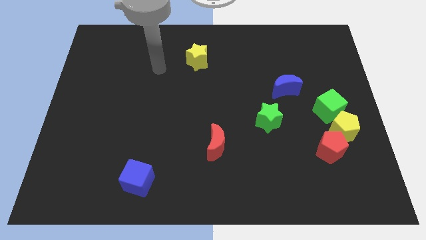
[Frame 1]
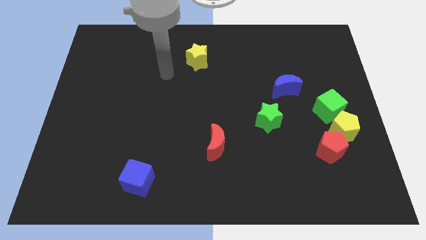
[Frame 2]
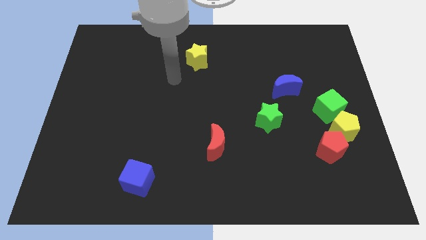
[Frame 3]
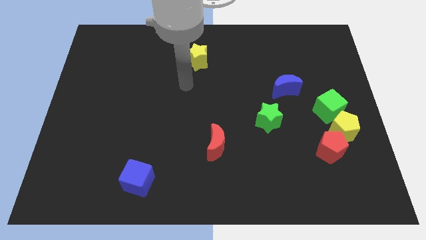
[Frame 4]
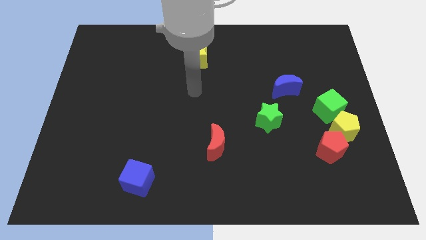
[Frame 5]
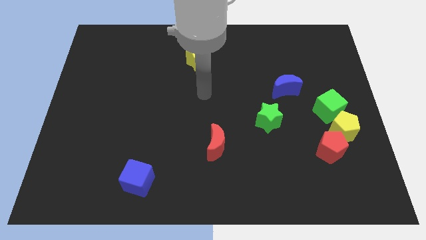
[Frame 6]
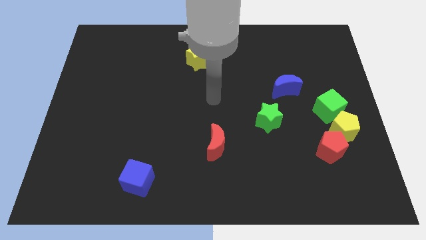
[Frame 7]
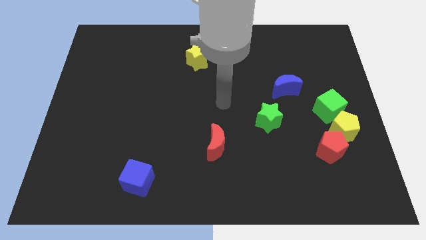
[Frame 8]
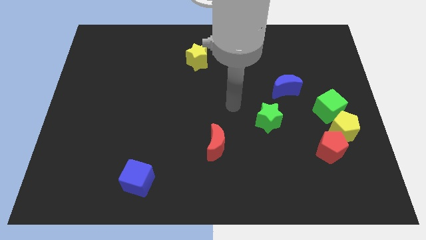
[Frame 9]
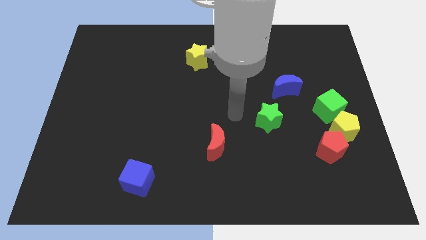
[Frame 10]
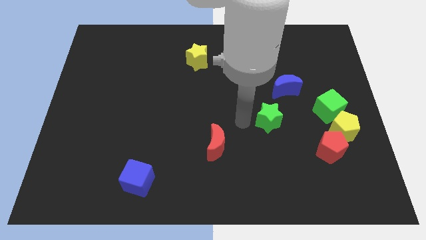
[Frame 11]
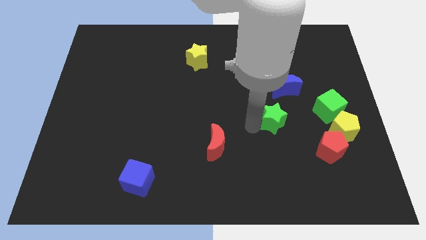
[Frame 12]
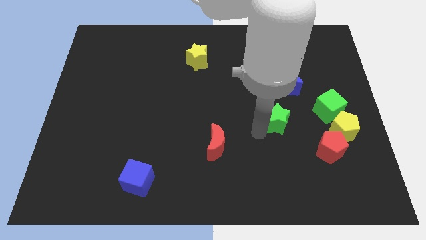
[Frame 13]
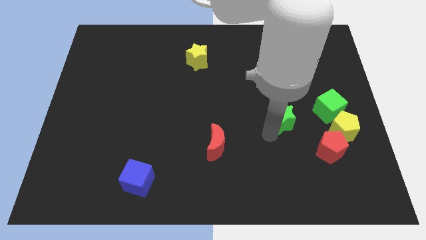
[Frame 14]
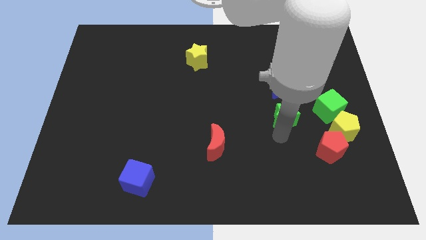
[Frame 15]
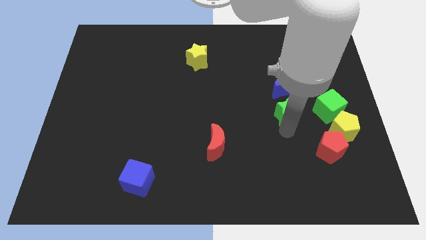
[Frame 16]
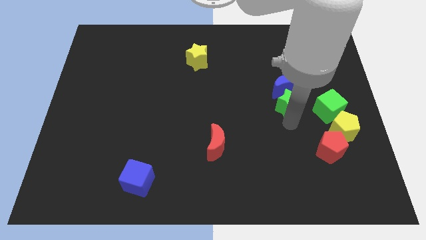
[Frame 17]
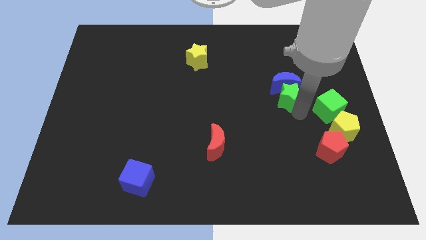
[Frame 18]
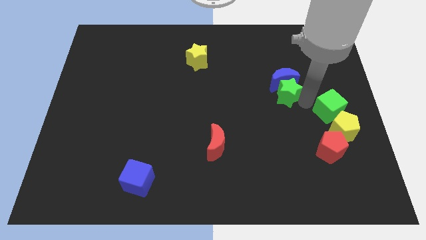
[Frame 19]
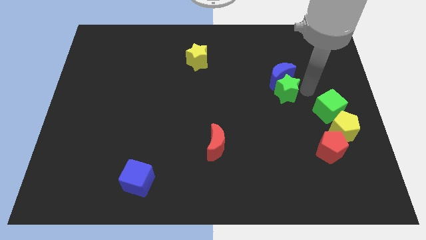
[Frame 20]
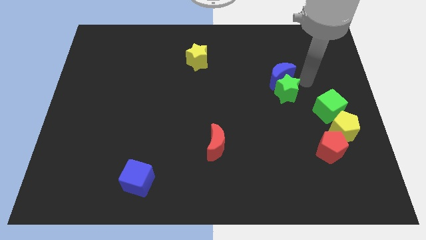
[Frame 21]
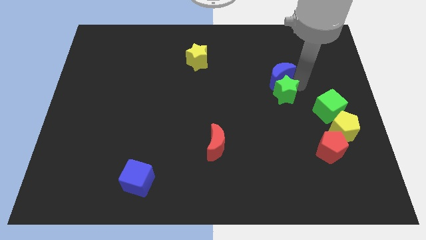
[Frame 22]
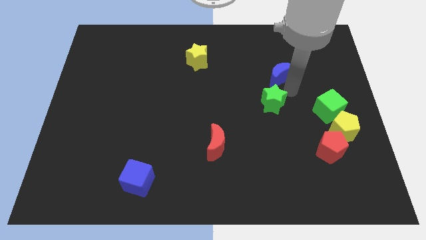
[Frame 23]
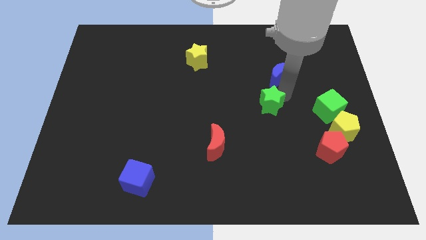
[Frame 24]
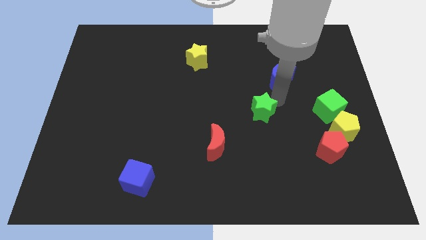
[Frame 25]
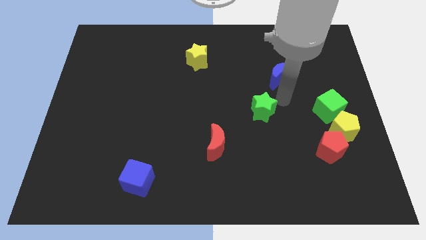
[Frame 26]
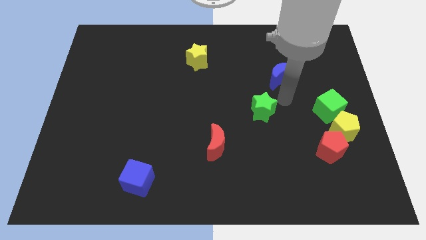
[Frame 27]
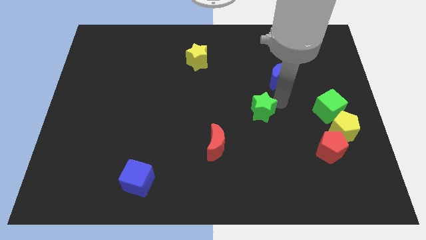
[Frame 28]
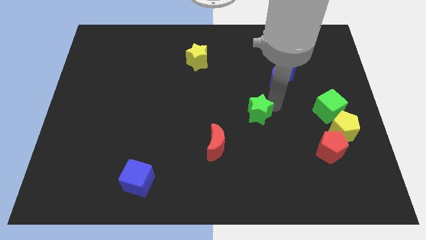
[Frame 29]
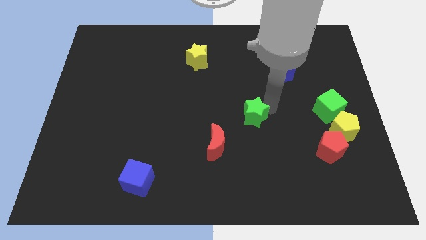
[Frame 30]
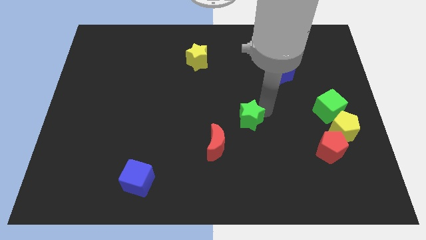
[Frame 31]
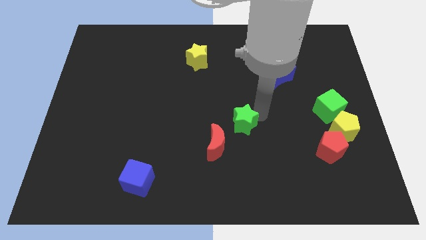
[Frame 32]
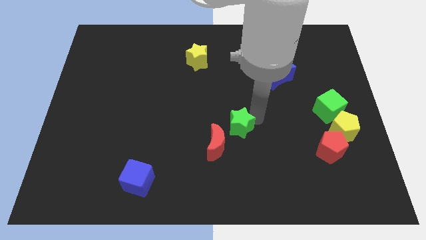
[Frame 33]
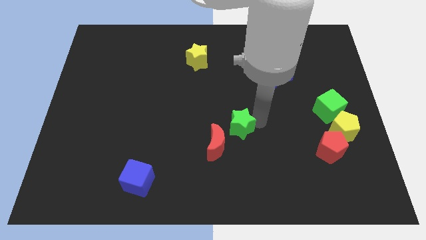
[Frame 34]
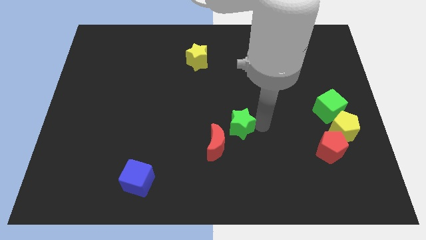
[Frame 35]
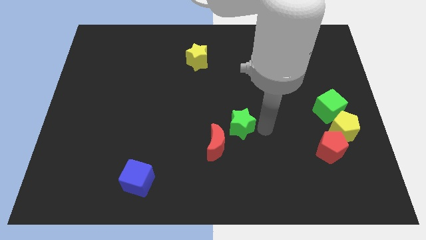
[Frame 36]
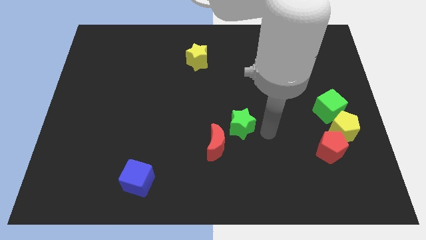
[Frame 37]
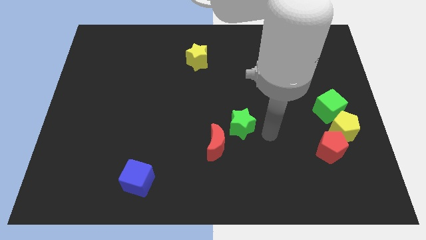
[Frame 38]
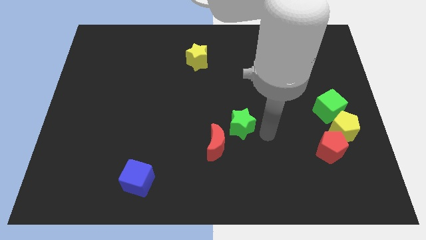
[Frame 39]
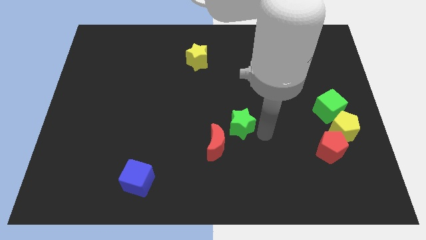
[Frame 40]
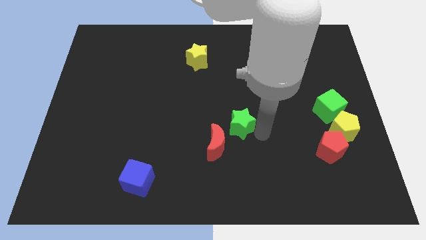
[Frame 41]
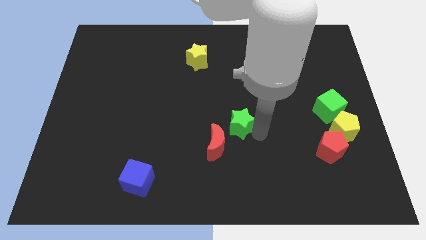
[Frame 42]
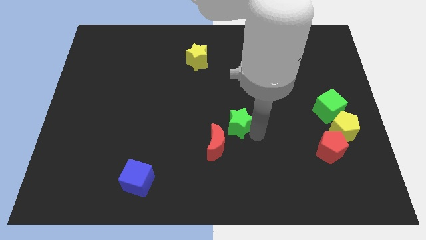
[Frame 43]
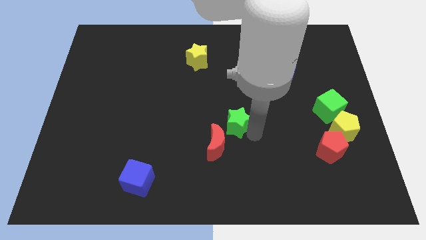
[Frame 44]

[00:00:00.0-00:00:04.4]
slightly push the green star to the left

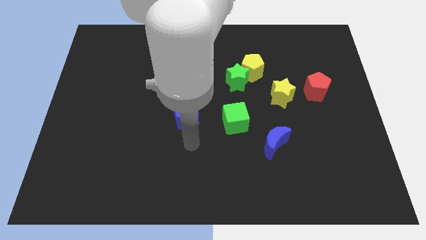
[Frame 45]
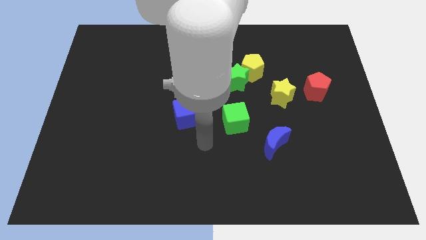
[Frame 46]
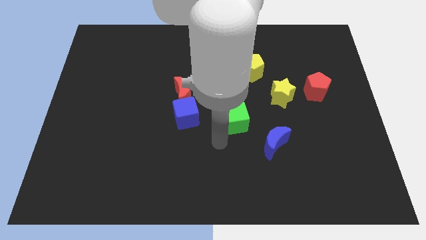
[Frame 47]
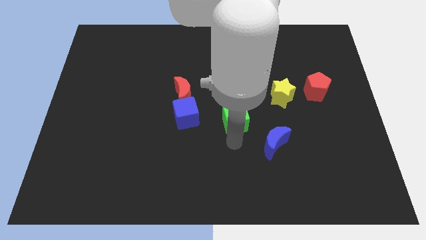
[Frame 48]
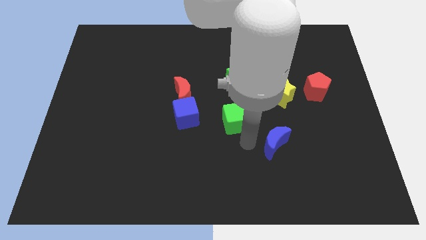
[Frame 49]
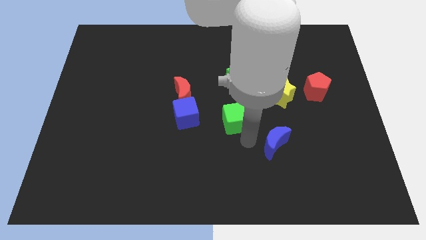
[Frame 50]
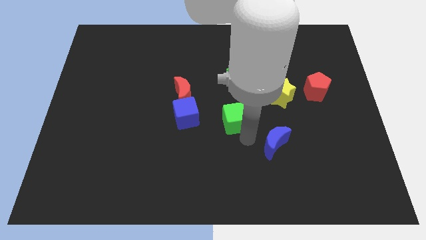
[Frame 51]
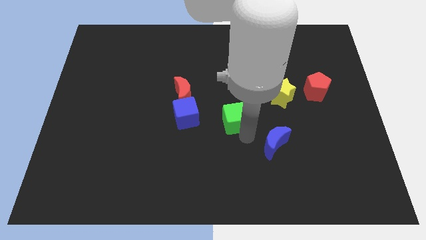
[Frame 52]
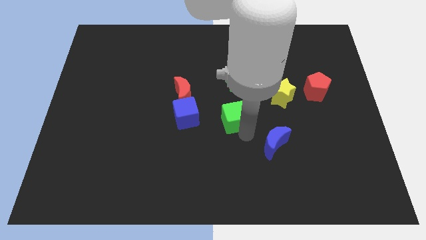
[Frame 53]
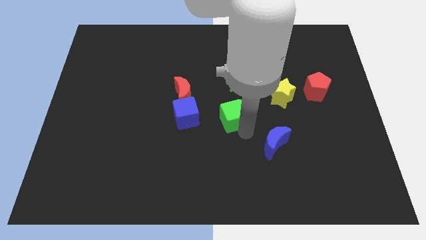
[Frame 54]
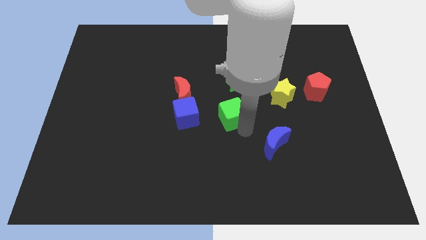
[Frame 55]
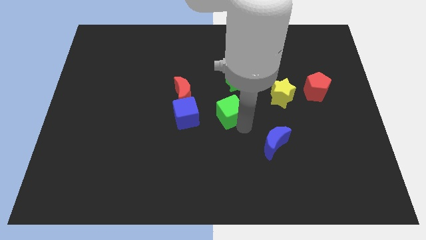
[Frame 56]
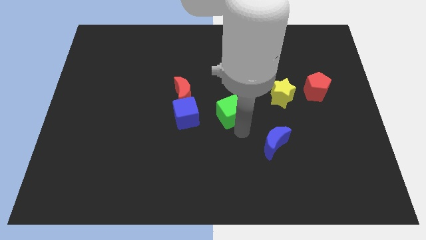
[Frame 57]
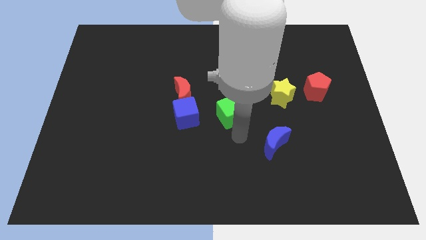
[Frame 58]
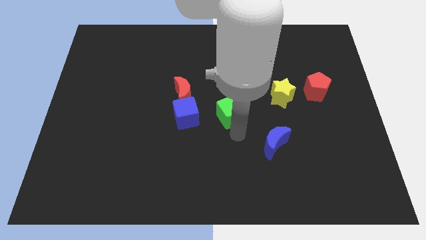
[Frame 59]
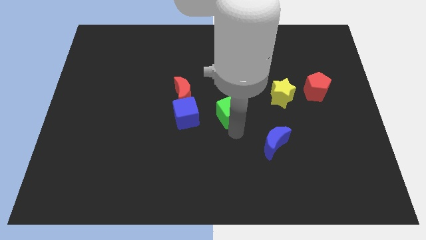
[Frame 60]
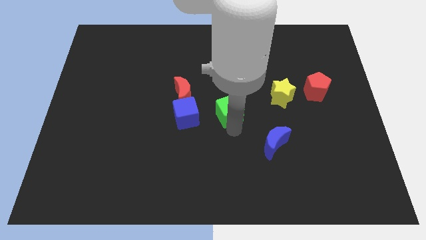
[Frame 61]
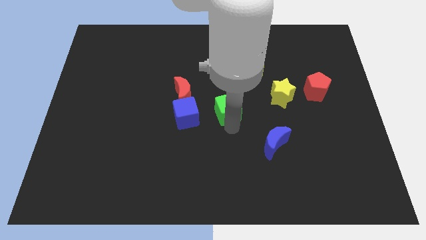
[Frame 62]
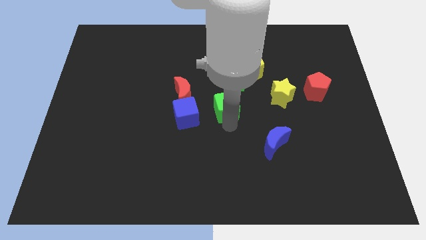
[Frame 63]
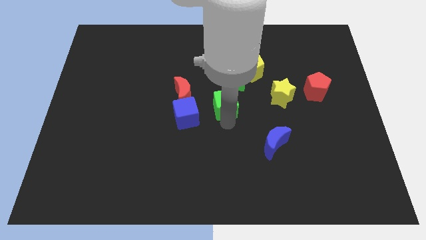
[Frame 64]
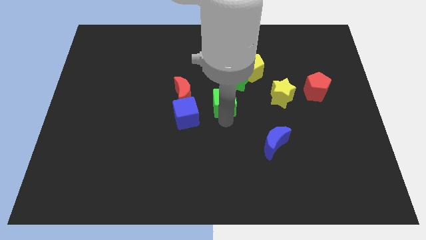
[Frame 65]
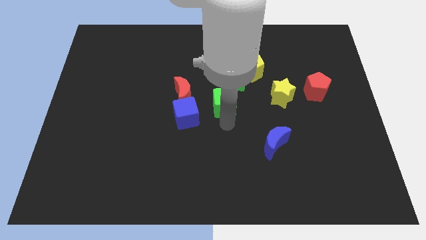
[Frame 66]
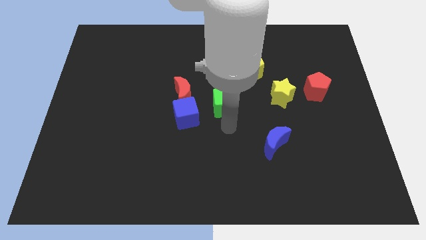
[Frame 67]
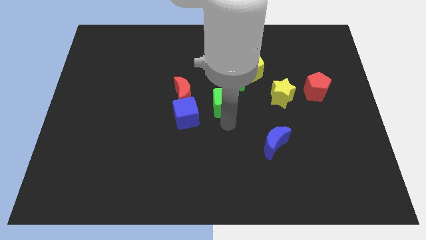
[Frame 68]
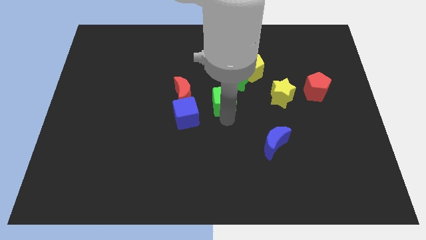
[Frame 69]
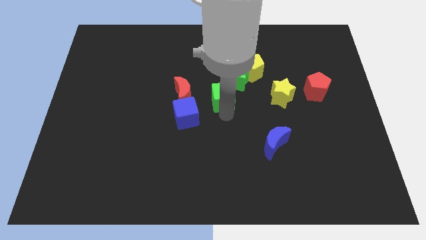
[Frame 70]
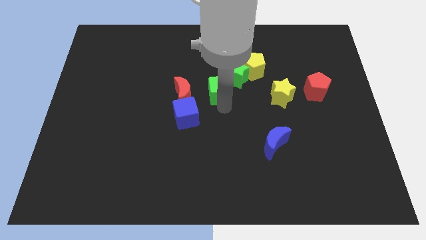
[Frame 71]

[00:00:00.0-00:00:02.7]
slide the green cube slightly up

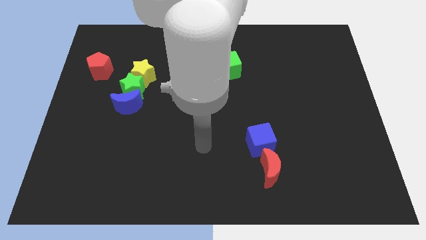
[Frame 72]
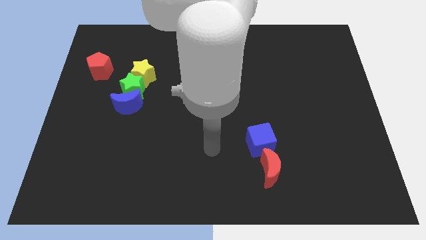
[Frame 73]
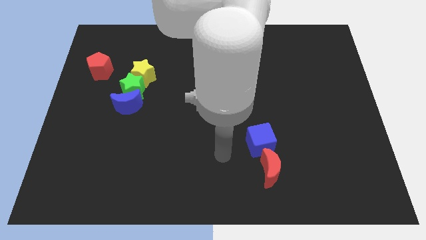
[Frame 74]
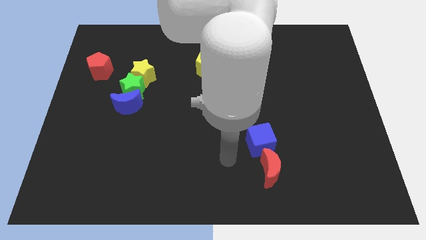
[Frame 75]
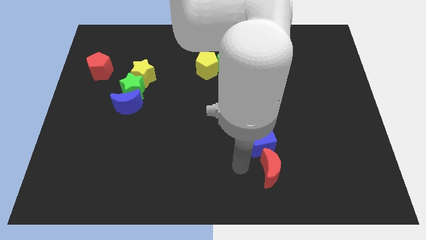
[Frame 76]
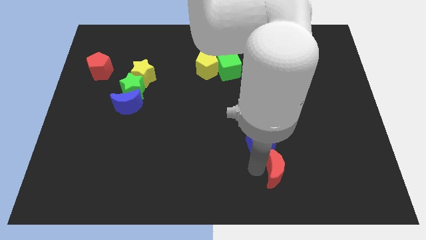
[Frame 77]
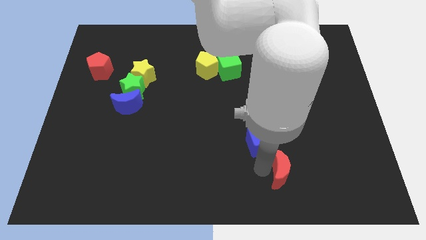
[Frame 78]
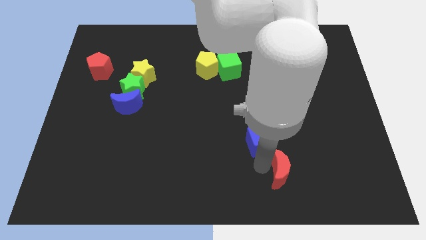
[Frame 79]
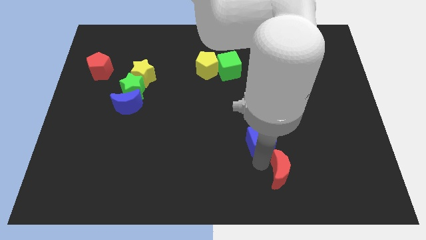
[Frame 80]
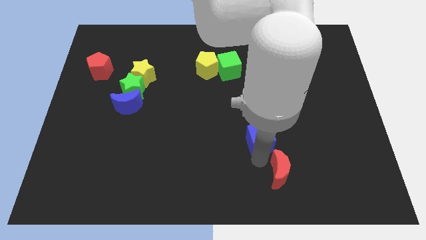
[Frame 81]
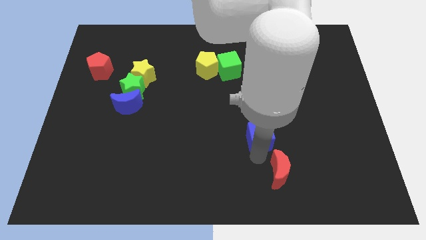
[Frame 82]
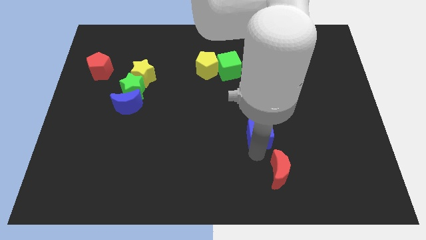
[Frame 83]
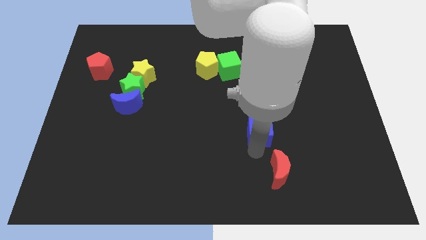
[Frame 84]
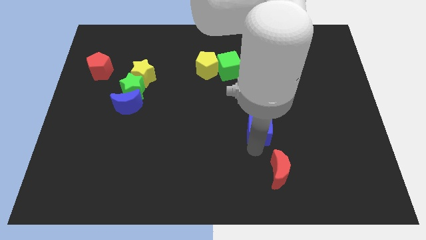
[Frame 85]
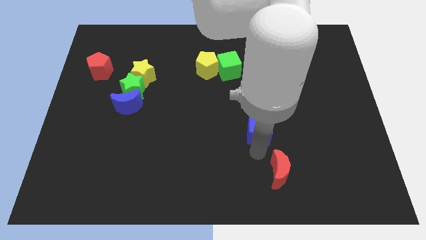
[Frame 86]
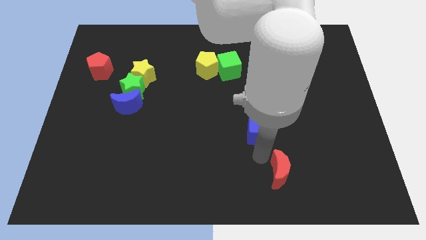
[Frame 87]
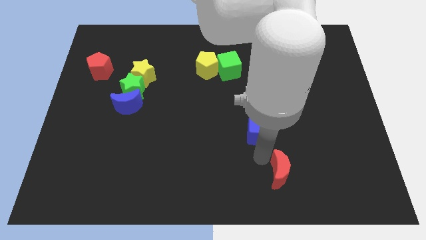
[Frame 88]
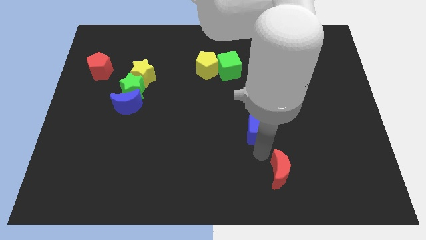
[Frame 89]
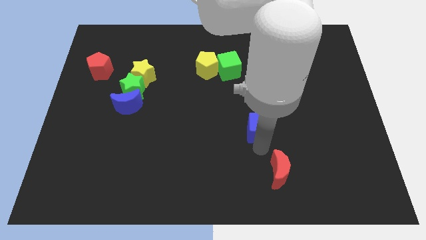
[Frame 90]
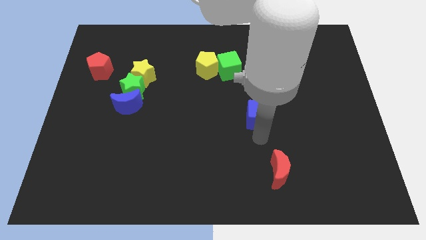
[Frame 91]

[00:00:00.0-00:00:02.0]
slide the blue cube somewhat up
